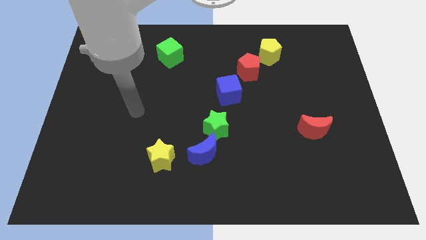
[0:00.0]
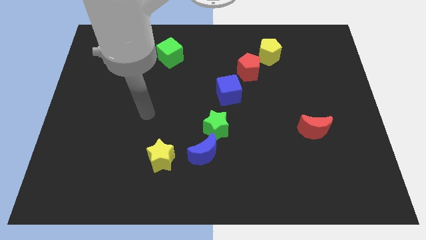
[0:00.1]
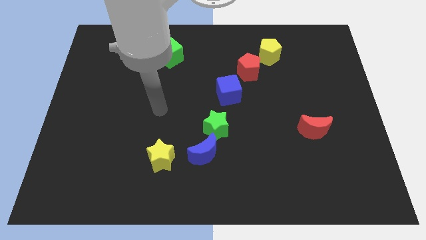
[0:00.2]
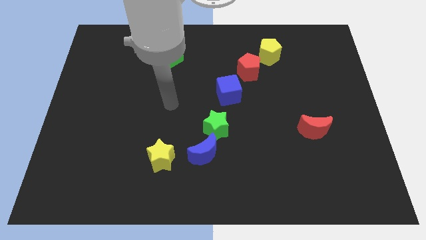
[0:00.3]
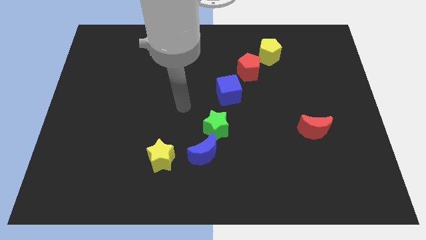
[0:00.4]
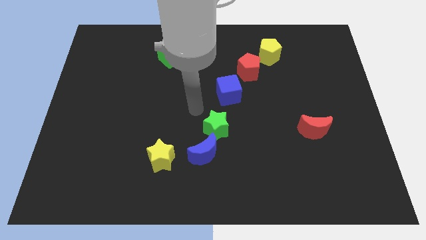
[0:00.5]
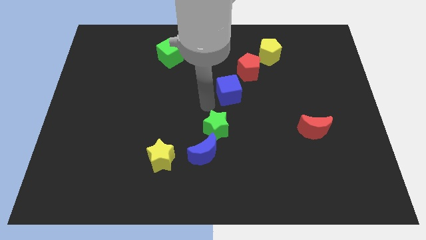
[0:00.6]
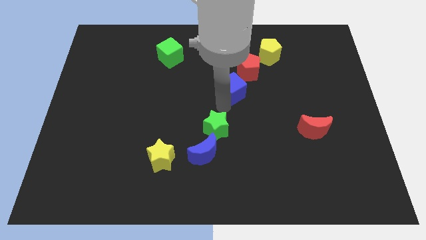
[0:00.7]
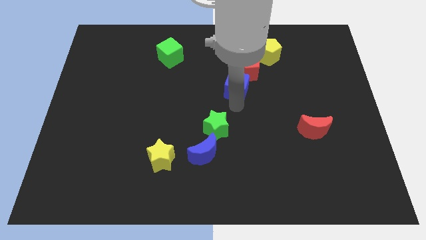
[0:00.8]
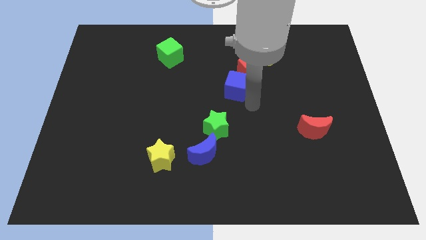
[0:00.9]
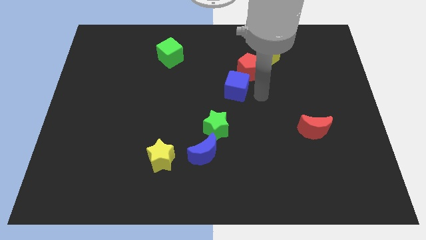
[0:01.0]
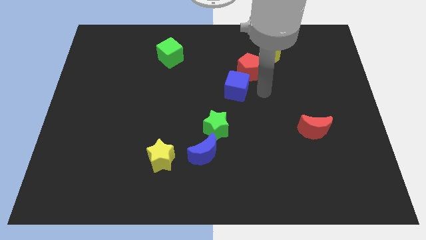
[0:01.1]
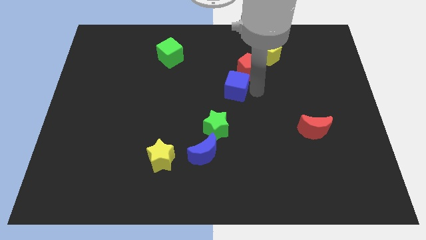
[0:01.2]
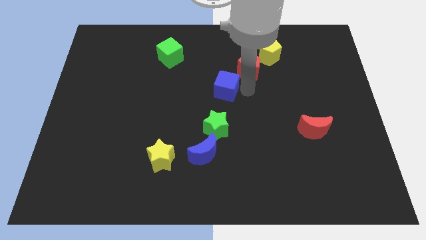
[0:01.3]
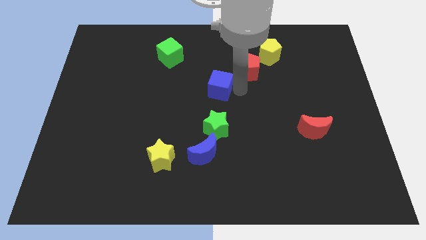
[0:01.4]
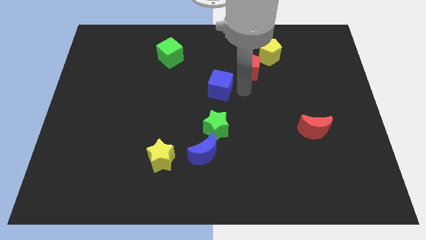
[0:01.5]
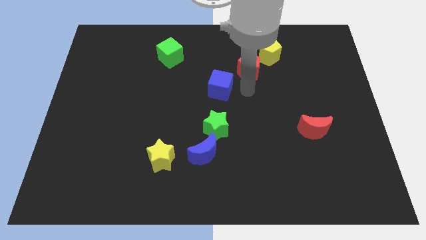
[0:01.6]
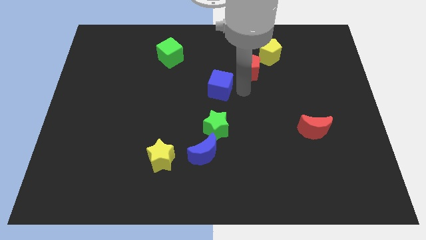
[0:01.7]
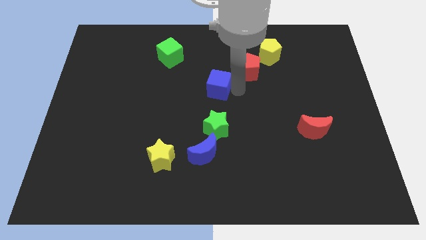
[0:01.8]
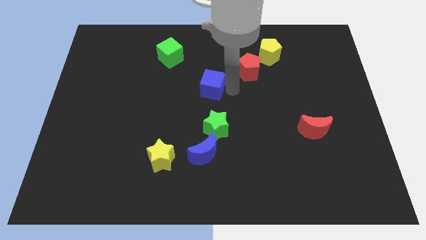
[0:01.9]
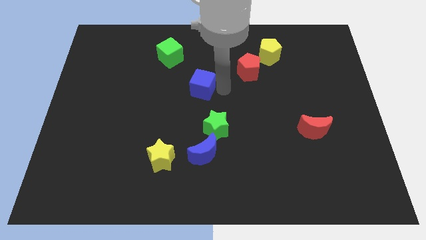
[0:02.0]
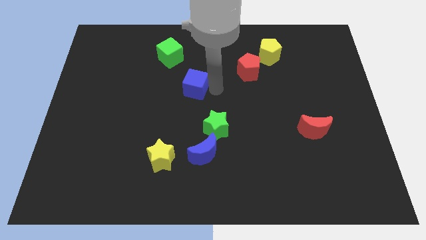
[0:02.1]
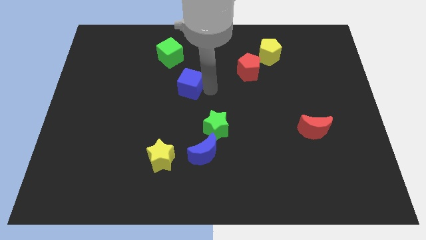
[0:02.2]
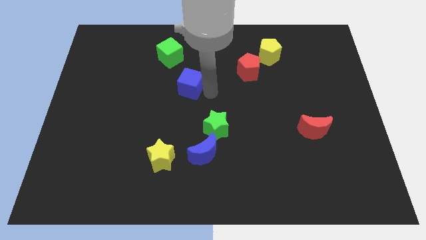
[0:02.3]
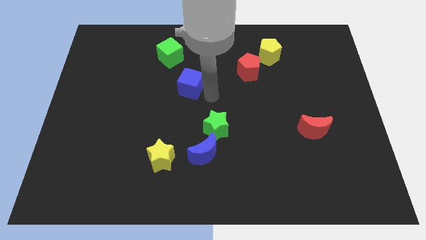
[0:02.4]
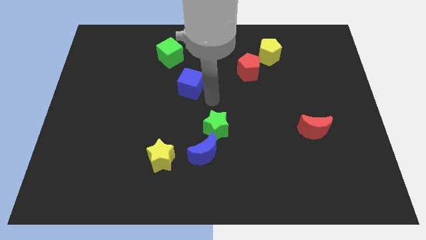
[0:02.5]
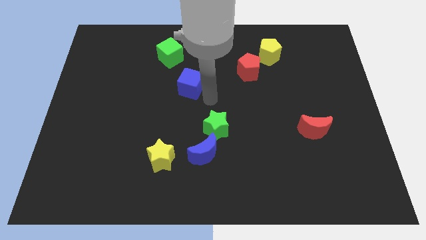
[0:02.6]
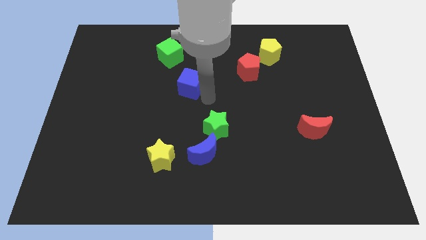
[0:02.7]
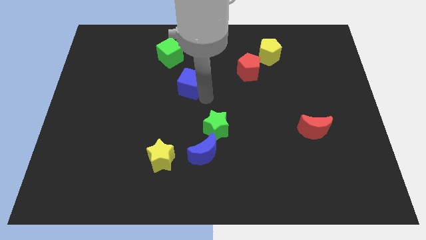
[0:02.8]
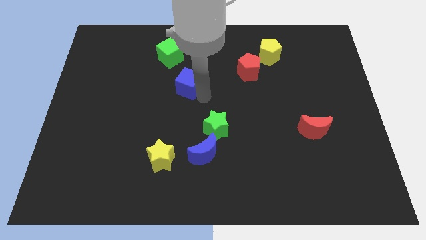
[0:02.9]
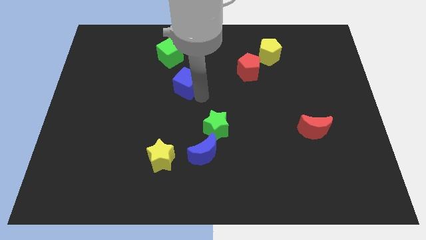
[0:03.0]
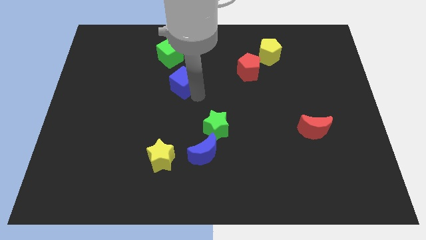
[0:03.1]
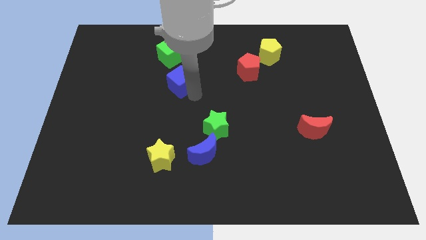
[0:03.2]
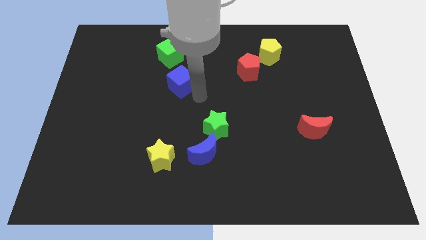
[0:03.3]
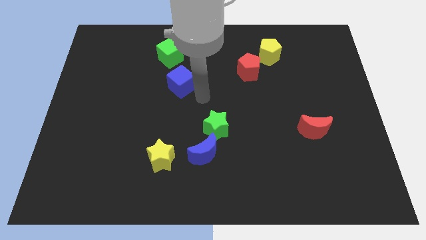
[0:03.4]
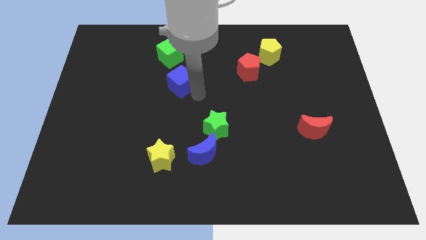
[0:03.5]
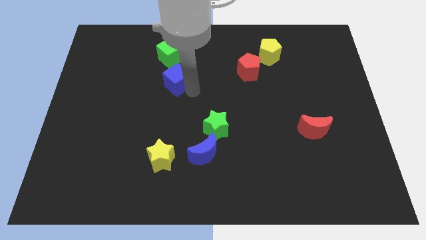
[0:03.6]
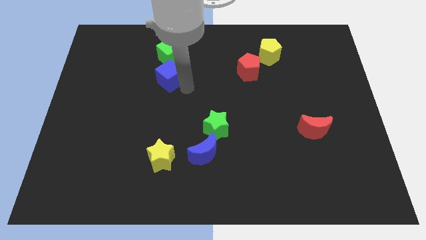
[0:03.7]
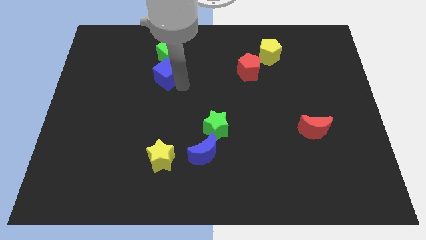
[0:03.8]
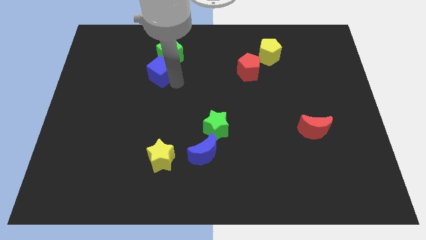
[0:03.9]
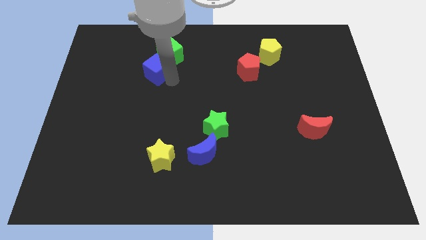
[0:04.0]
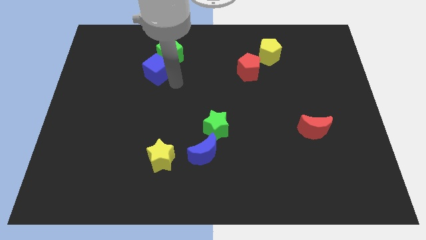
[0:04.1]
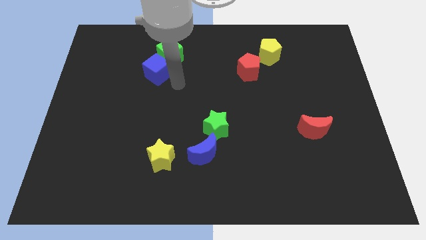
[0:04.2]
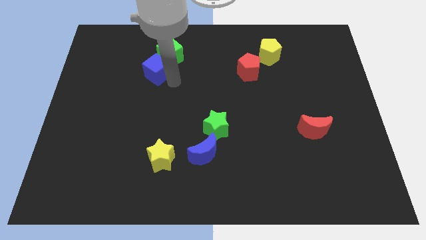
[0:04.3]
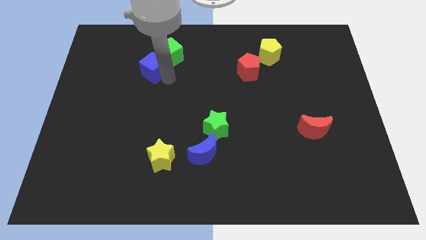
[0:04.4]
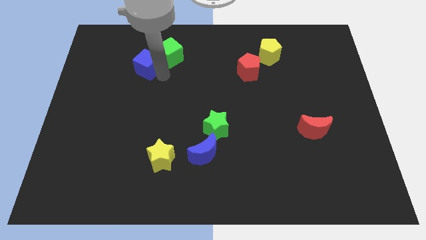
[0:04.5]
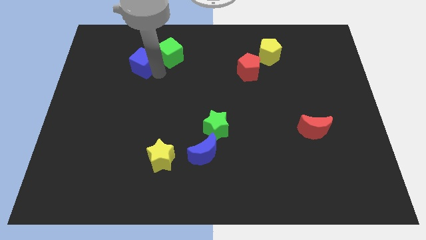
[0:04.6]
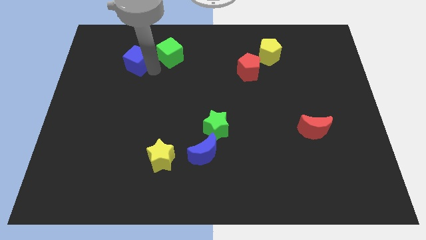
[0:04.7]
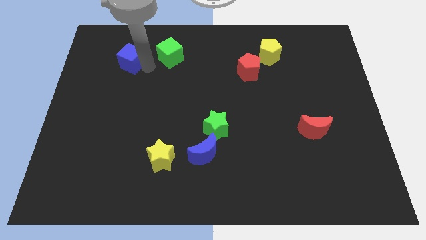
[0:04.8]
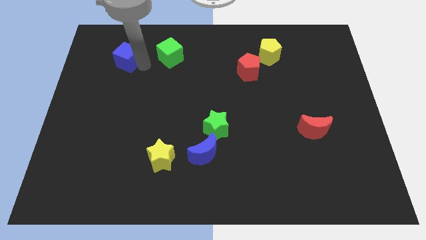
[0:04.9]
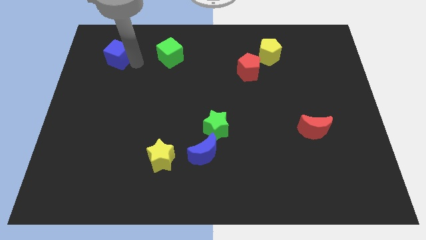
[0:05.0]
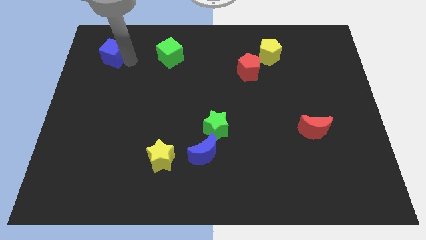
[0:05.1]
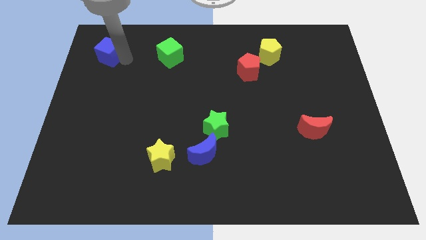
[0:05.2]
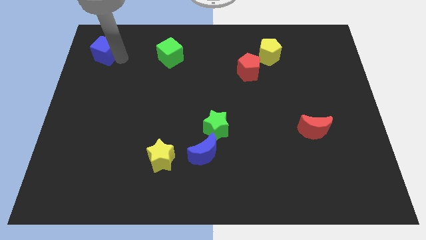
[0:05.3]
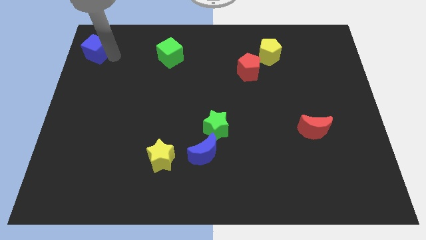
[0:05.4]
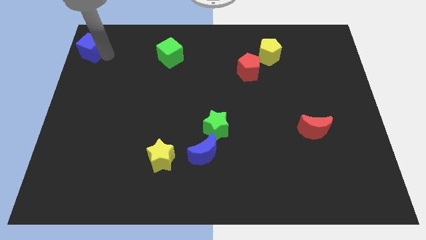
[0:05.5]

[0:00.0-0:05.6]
put the blue cube to the top left

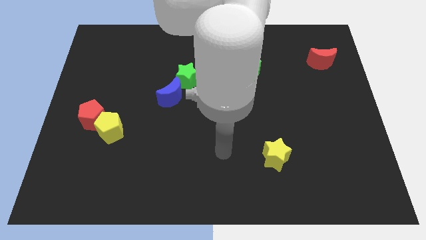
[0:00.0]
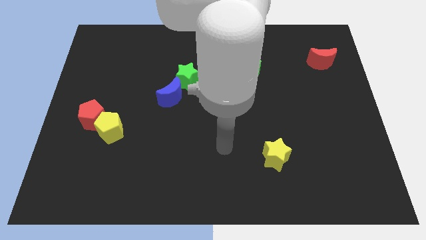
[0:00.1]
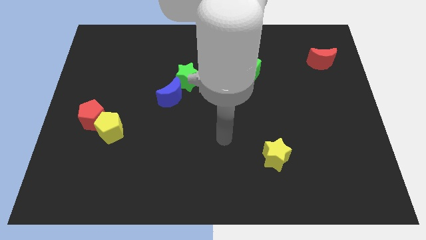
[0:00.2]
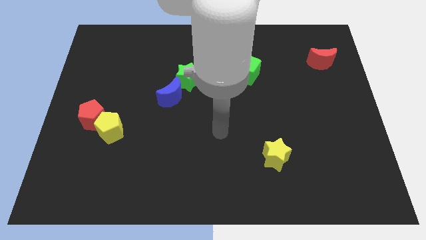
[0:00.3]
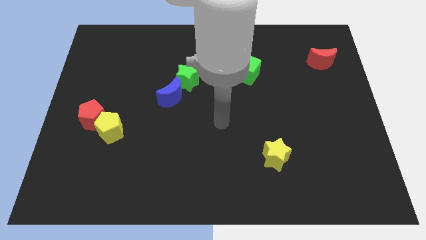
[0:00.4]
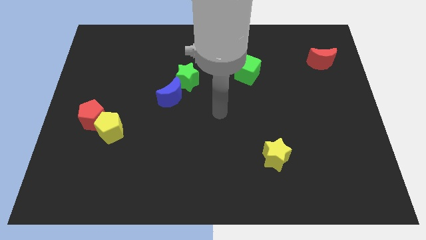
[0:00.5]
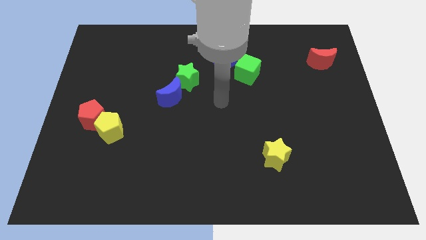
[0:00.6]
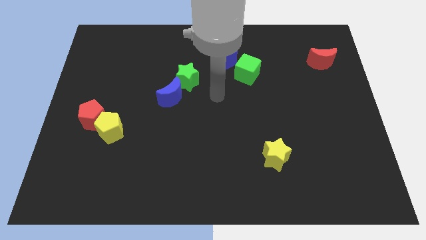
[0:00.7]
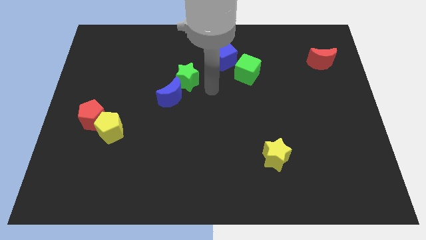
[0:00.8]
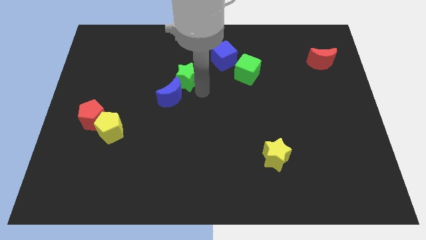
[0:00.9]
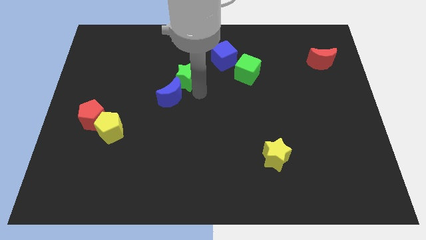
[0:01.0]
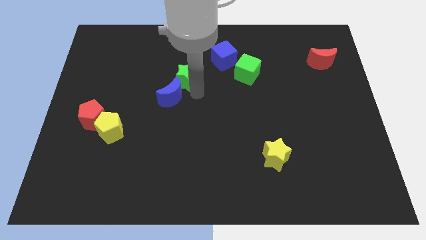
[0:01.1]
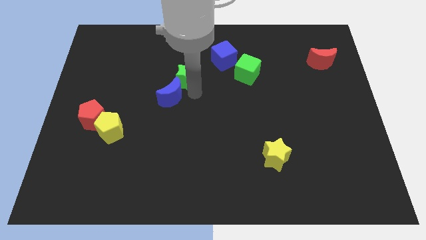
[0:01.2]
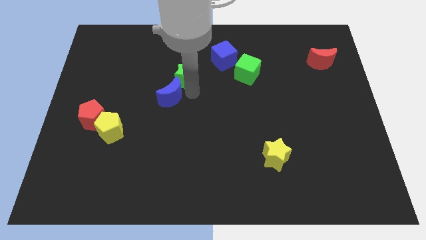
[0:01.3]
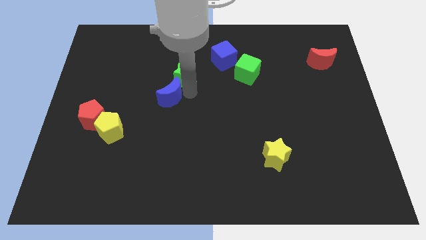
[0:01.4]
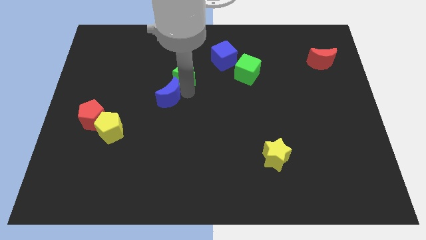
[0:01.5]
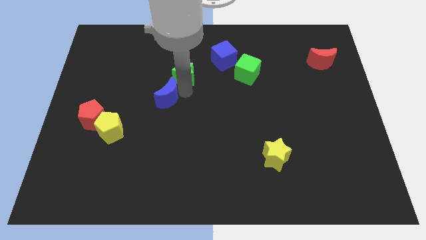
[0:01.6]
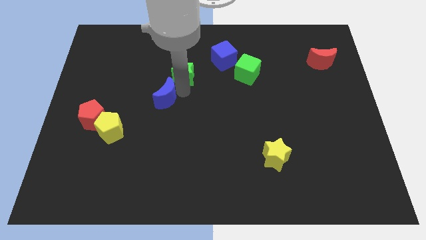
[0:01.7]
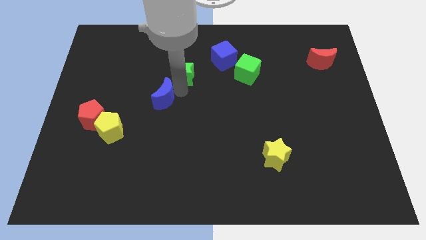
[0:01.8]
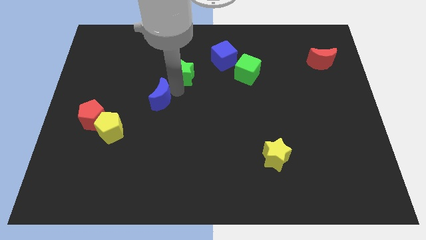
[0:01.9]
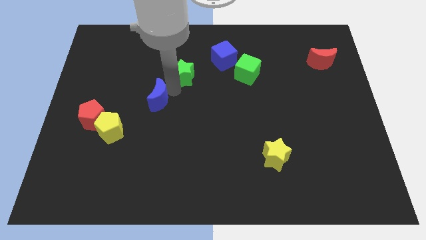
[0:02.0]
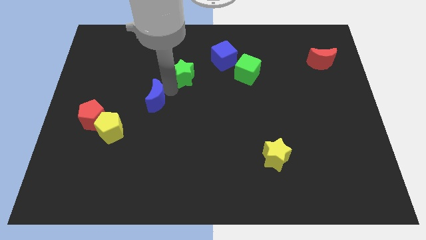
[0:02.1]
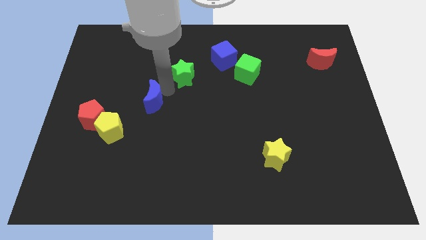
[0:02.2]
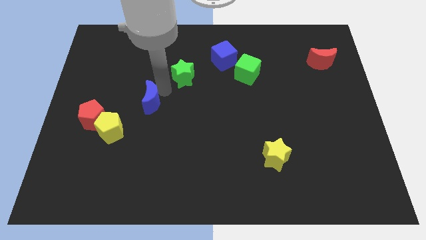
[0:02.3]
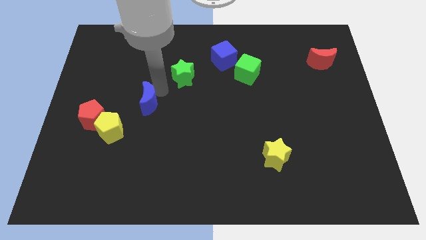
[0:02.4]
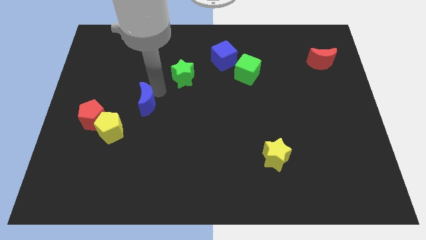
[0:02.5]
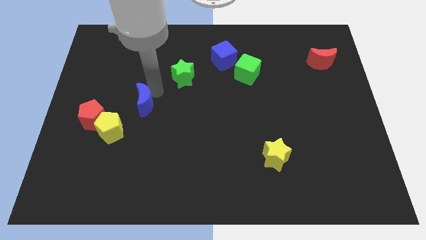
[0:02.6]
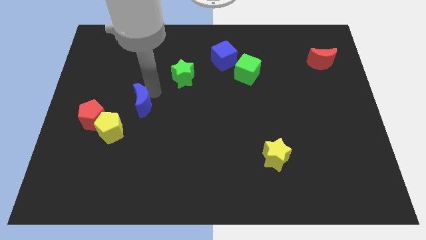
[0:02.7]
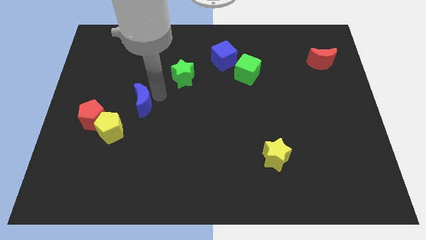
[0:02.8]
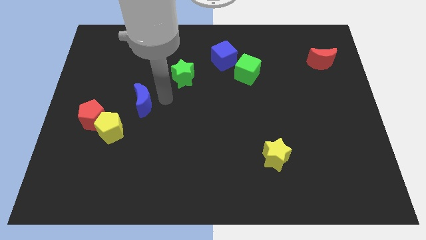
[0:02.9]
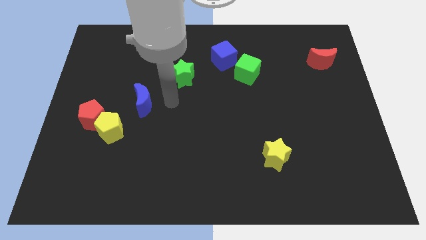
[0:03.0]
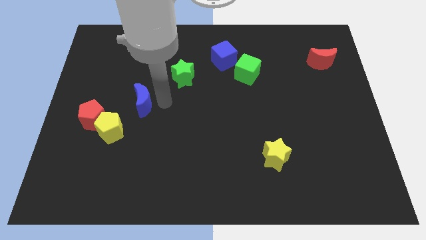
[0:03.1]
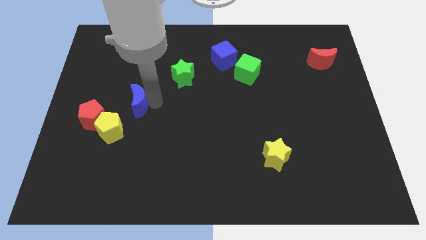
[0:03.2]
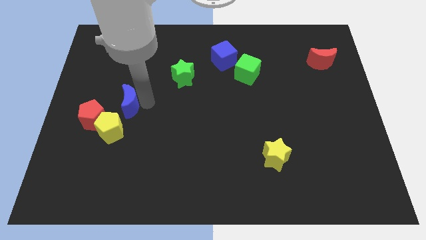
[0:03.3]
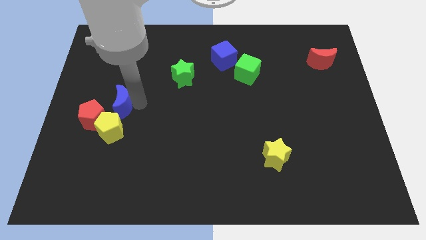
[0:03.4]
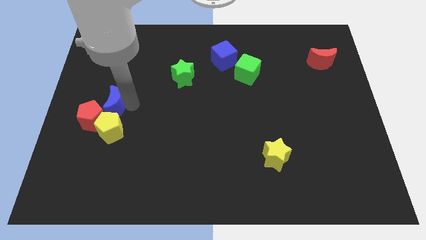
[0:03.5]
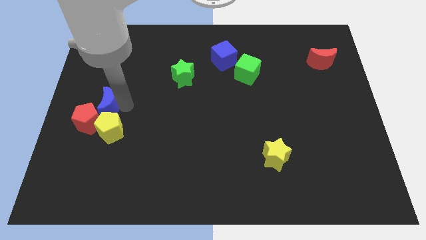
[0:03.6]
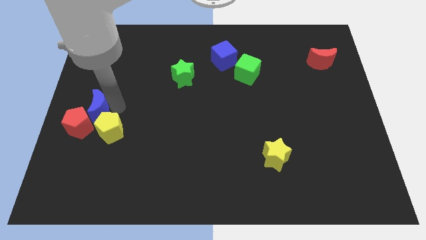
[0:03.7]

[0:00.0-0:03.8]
put the blue moon to the left side
